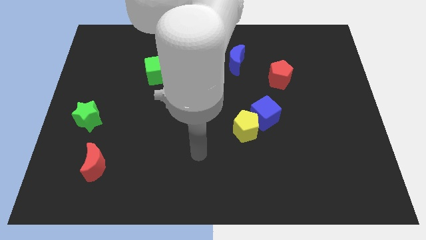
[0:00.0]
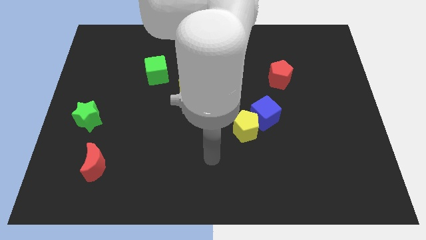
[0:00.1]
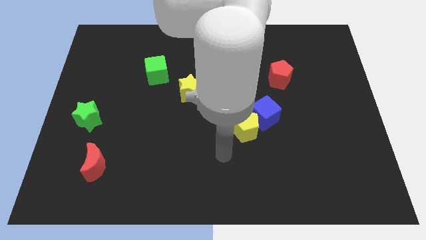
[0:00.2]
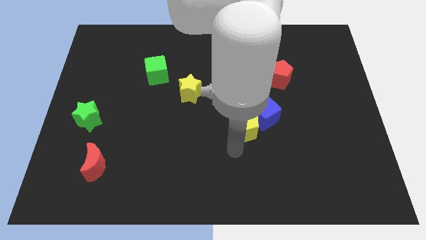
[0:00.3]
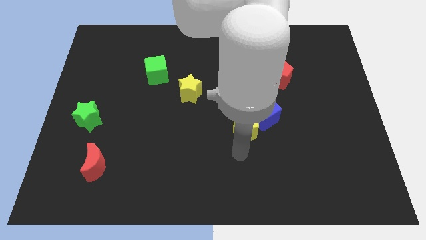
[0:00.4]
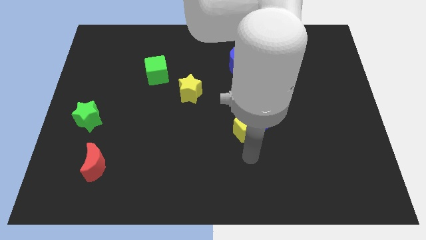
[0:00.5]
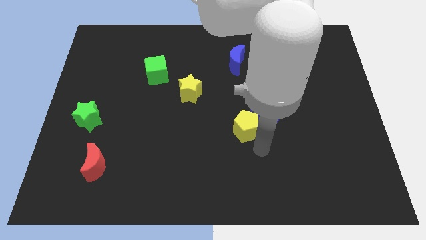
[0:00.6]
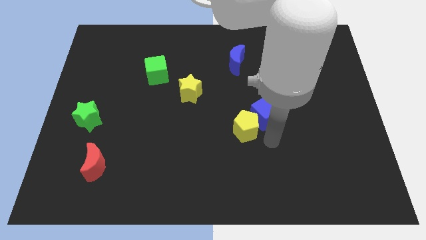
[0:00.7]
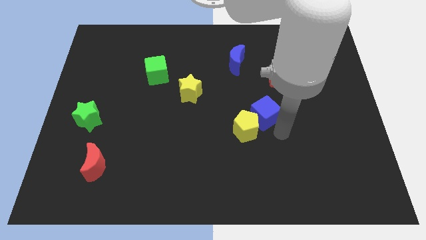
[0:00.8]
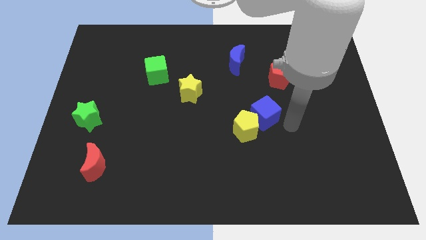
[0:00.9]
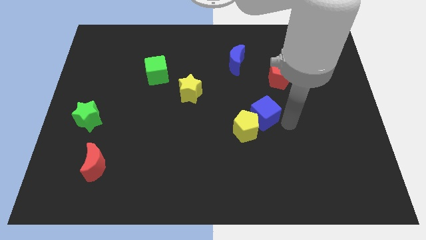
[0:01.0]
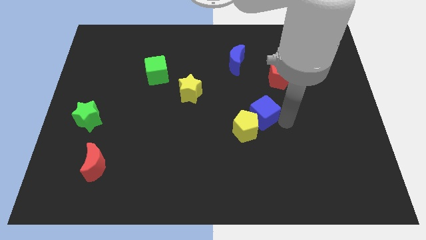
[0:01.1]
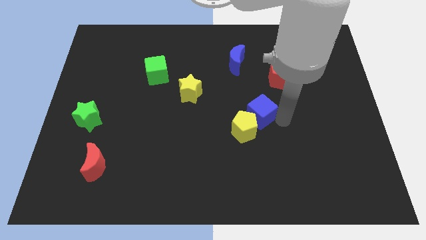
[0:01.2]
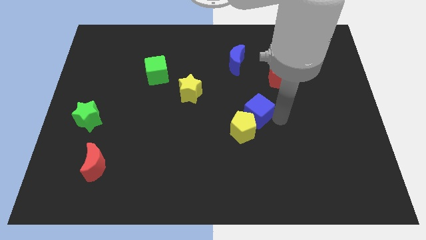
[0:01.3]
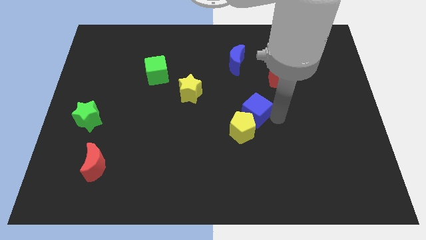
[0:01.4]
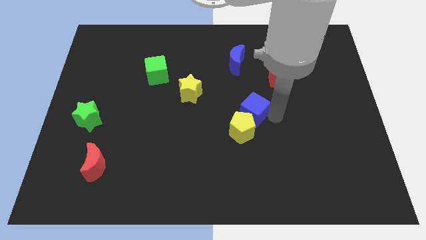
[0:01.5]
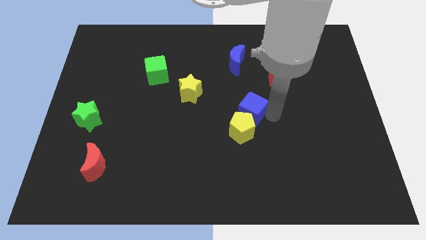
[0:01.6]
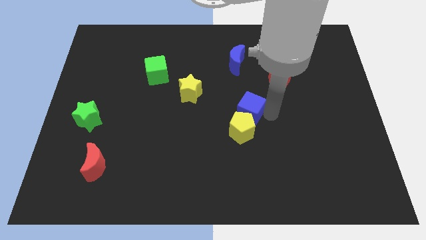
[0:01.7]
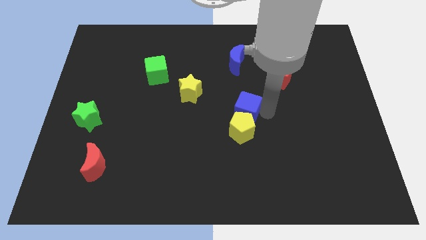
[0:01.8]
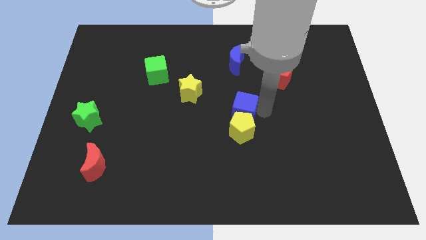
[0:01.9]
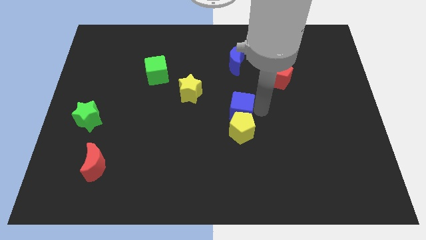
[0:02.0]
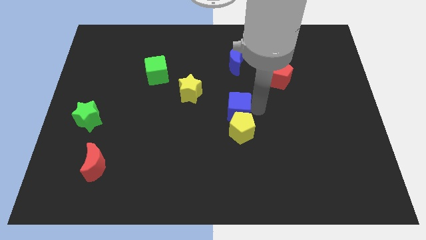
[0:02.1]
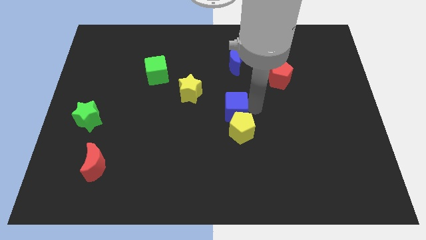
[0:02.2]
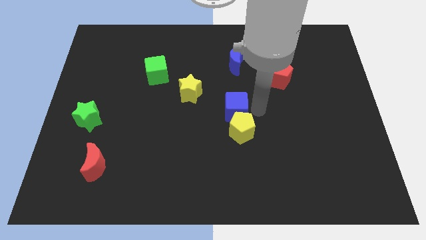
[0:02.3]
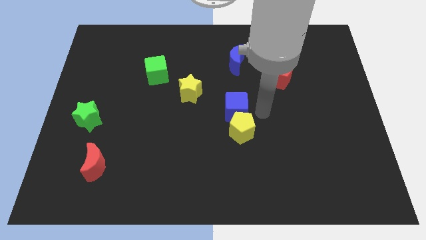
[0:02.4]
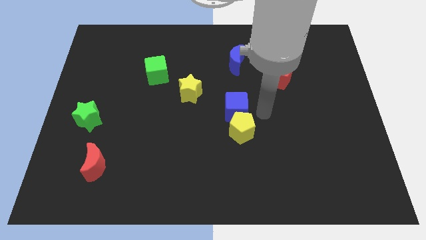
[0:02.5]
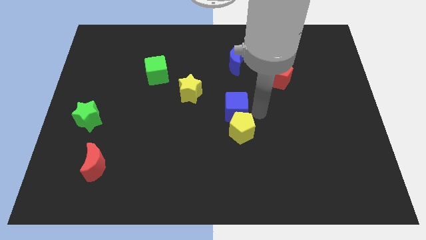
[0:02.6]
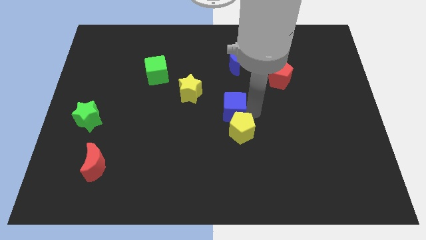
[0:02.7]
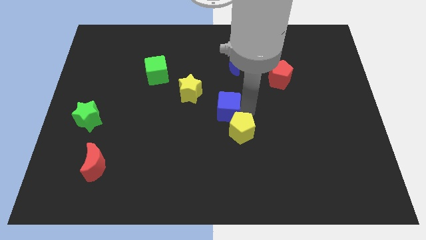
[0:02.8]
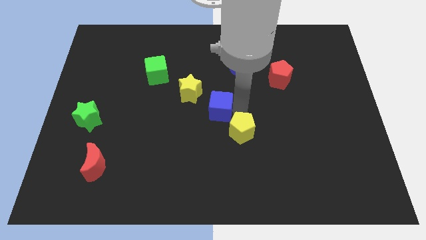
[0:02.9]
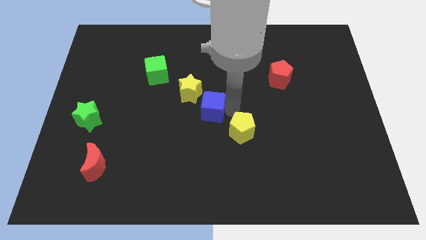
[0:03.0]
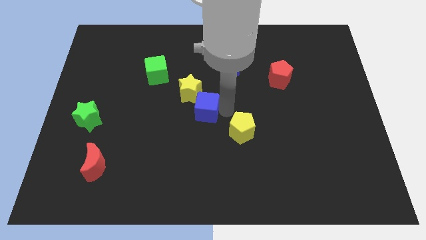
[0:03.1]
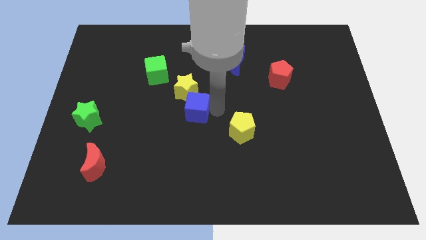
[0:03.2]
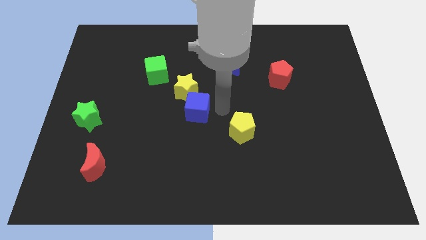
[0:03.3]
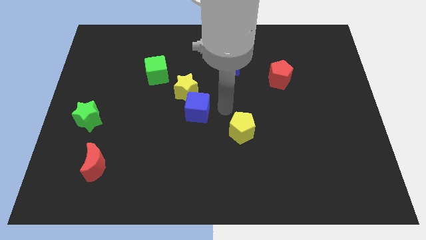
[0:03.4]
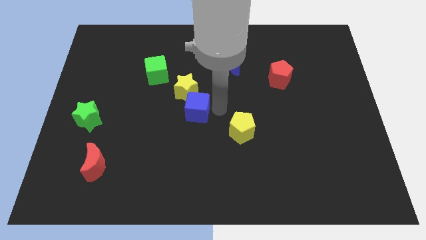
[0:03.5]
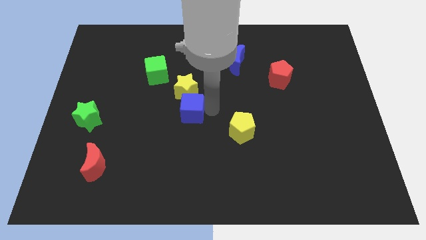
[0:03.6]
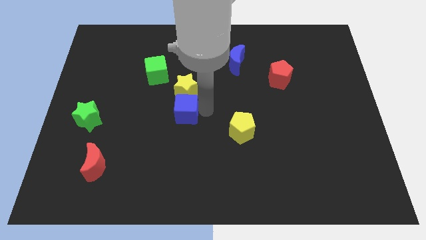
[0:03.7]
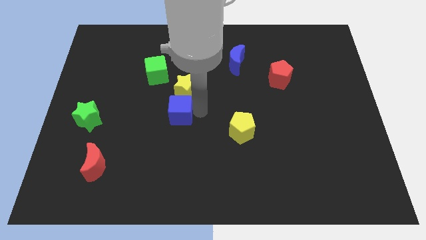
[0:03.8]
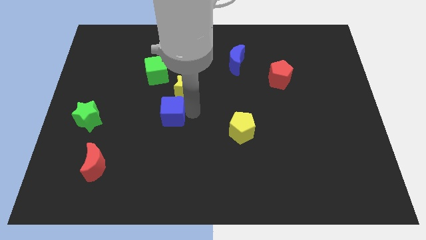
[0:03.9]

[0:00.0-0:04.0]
push the blue cube left

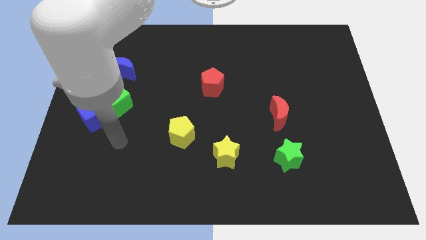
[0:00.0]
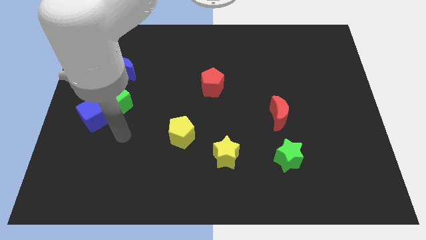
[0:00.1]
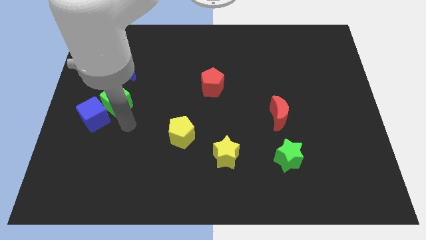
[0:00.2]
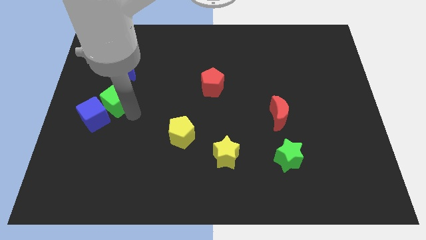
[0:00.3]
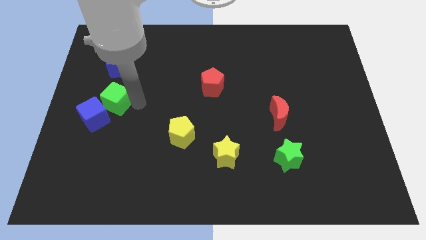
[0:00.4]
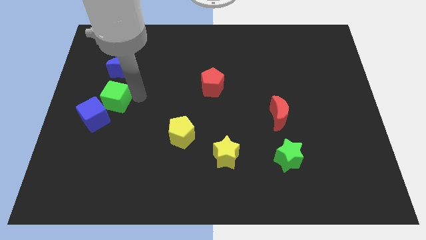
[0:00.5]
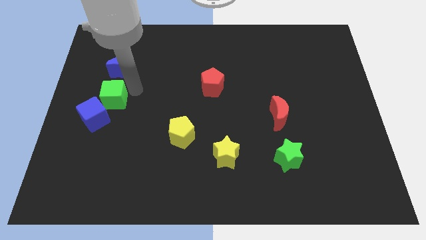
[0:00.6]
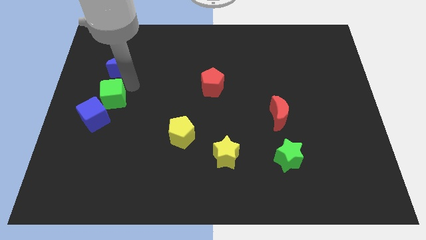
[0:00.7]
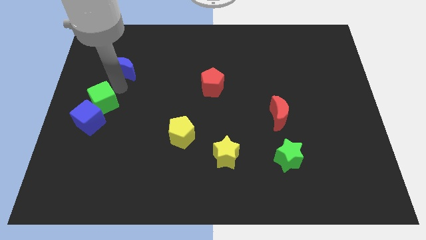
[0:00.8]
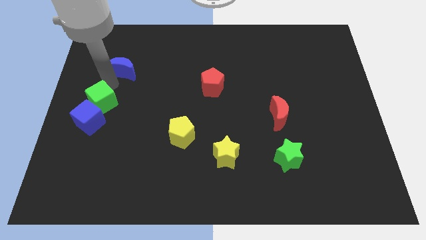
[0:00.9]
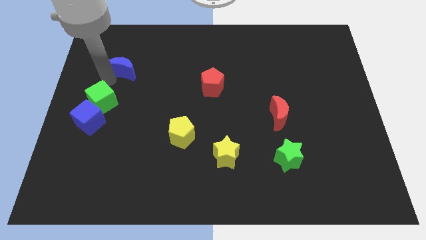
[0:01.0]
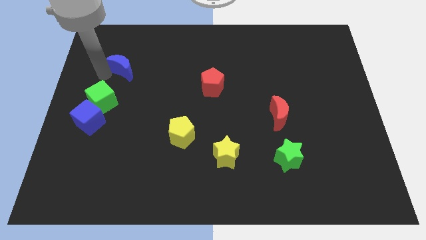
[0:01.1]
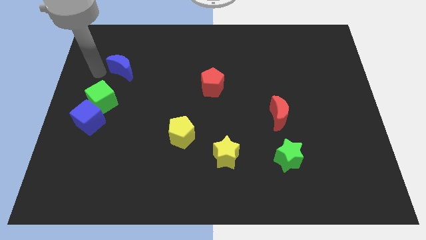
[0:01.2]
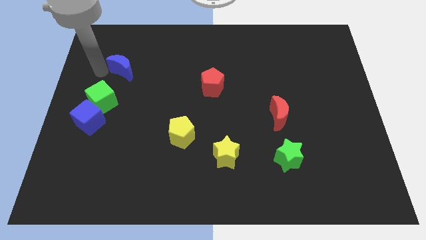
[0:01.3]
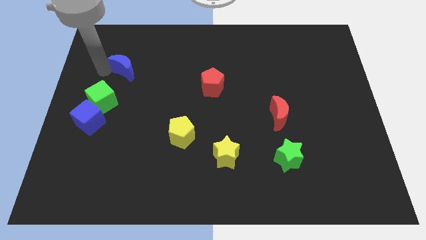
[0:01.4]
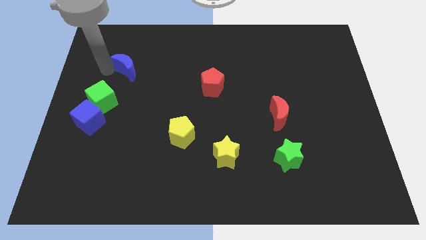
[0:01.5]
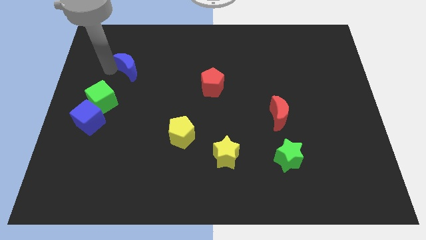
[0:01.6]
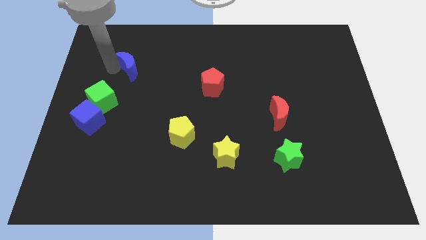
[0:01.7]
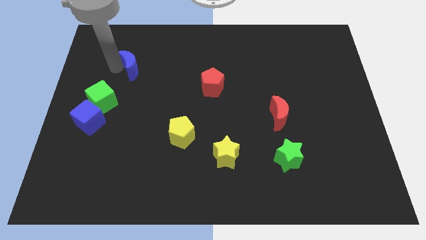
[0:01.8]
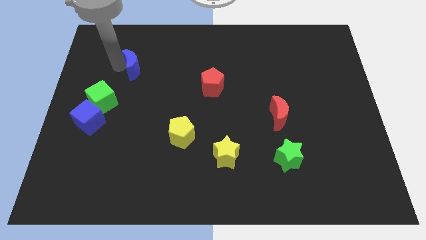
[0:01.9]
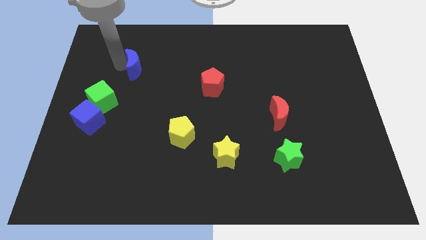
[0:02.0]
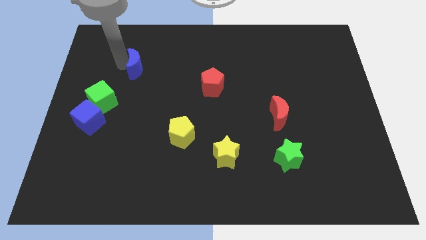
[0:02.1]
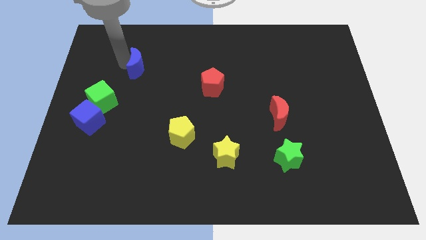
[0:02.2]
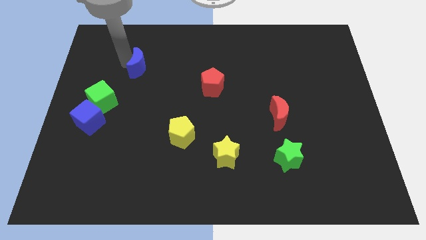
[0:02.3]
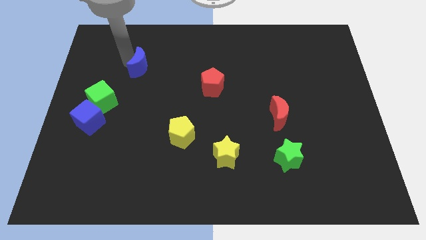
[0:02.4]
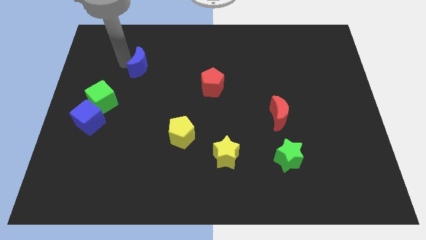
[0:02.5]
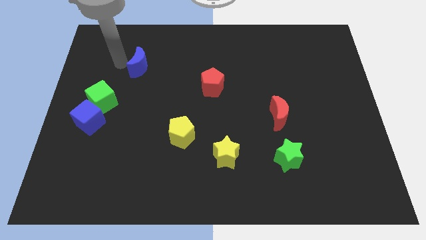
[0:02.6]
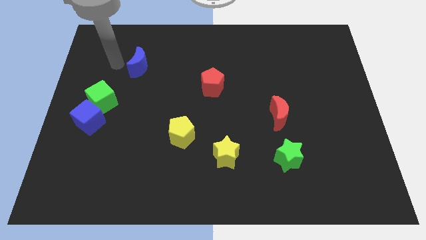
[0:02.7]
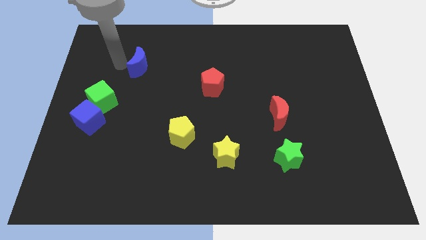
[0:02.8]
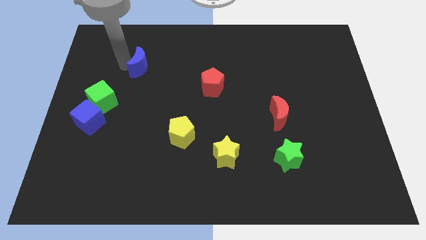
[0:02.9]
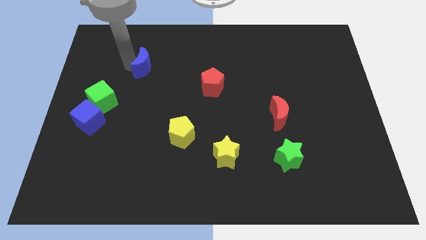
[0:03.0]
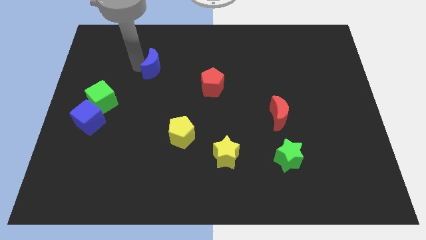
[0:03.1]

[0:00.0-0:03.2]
push the blue moon a little to the right

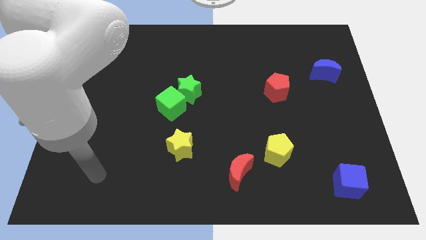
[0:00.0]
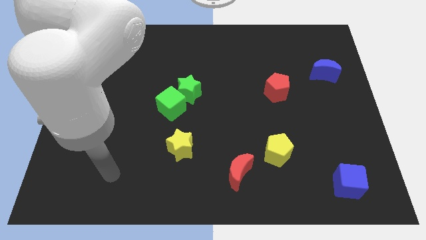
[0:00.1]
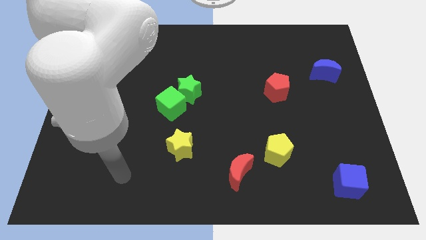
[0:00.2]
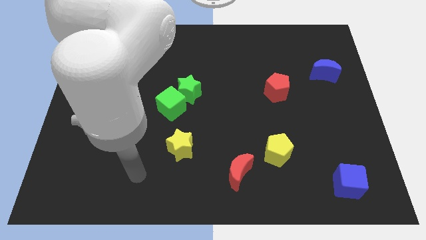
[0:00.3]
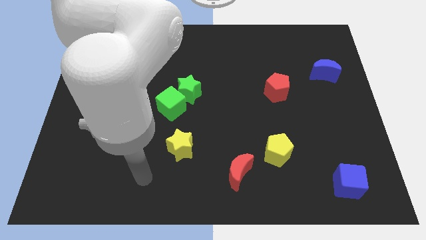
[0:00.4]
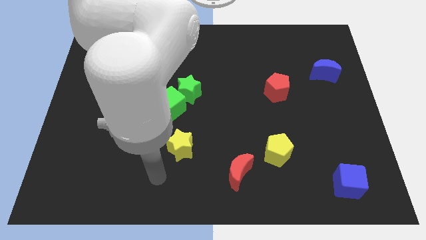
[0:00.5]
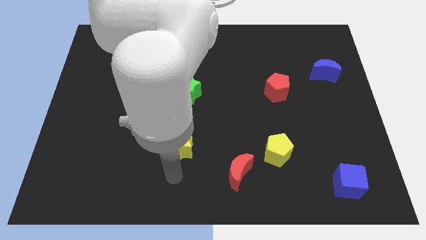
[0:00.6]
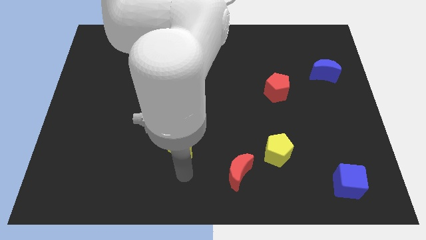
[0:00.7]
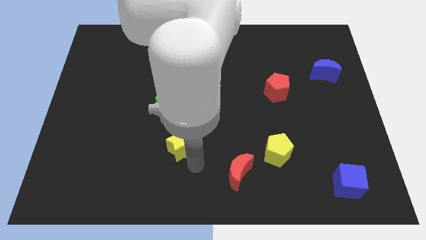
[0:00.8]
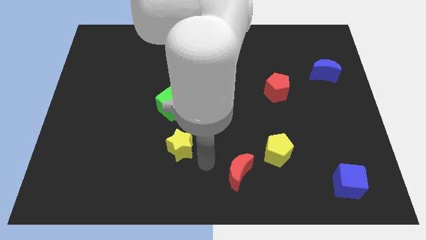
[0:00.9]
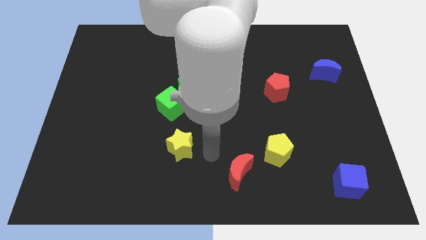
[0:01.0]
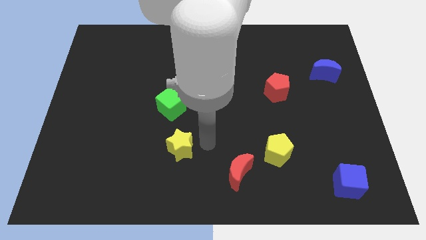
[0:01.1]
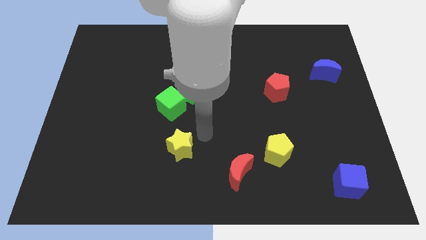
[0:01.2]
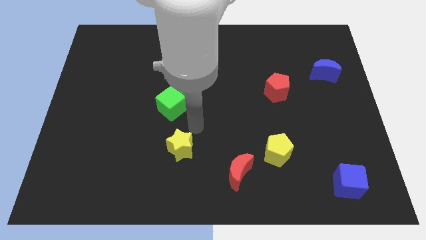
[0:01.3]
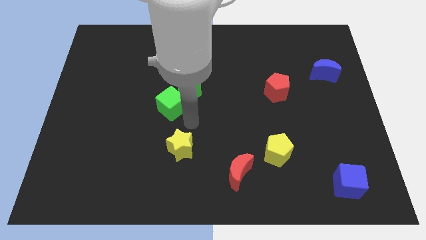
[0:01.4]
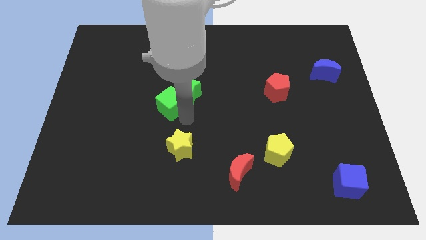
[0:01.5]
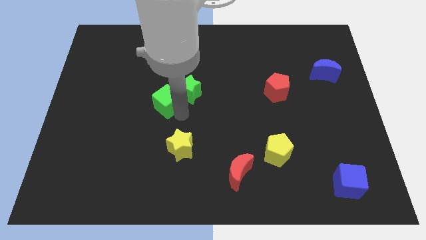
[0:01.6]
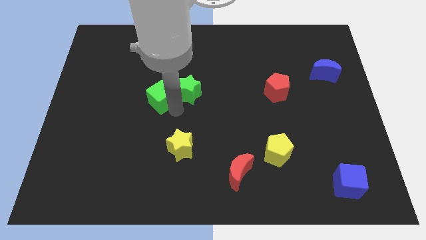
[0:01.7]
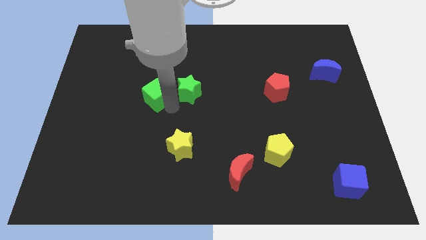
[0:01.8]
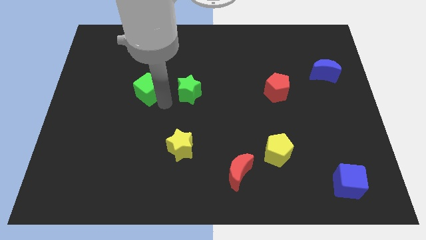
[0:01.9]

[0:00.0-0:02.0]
slide the green cube upwards and left diagonally somewhat
